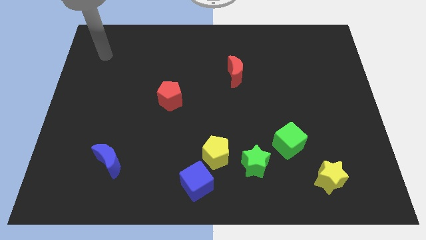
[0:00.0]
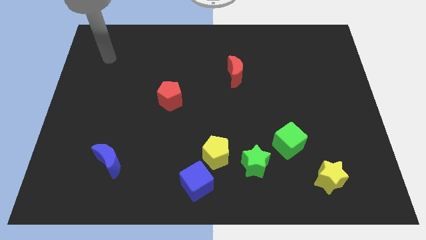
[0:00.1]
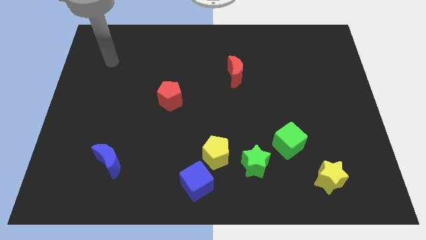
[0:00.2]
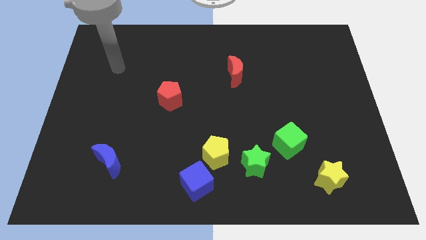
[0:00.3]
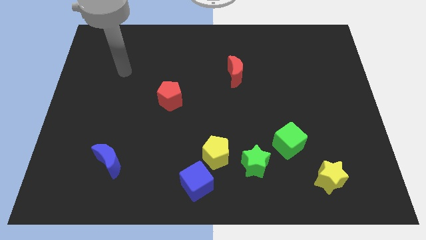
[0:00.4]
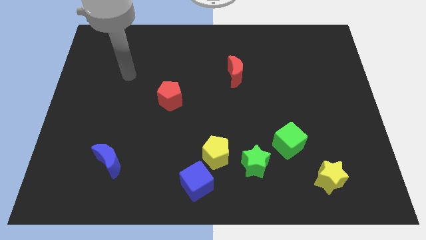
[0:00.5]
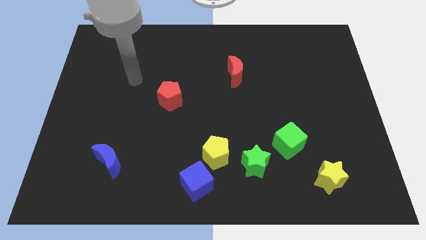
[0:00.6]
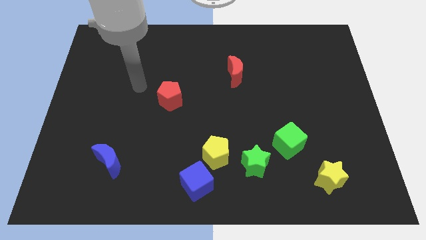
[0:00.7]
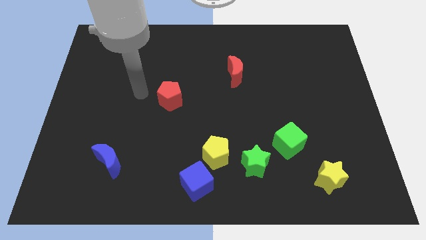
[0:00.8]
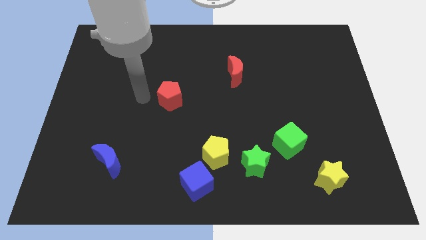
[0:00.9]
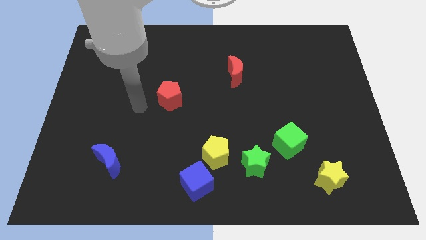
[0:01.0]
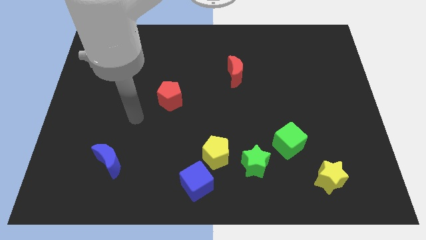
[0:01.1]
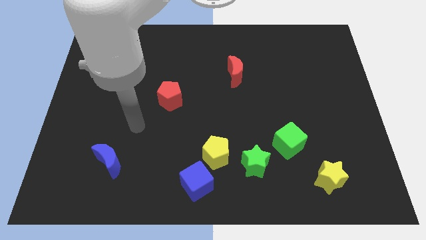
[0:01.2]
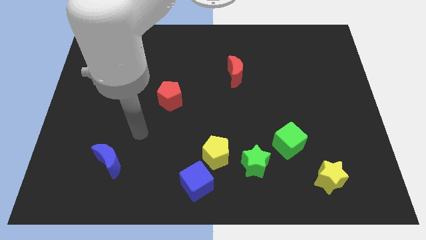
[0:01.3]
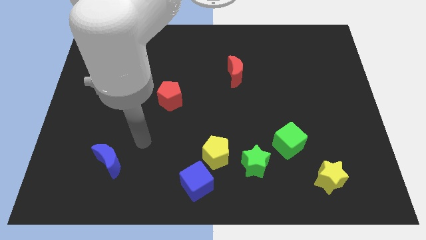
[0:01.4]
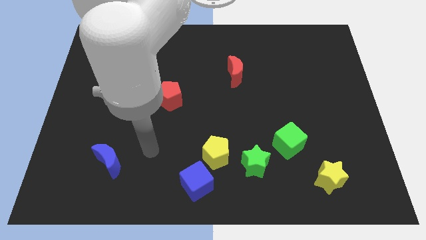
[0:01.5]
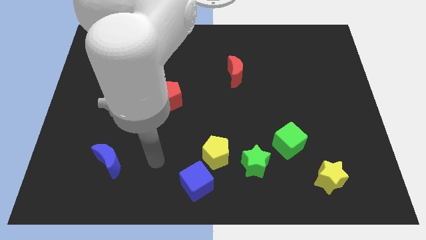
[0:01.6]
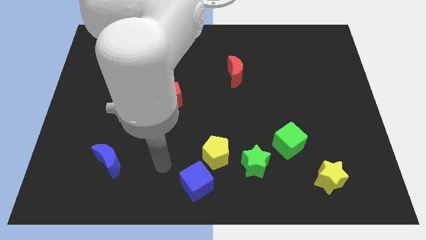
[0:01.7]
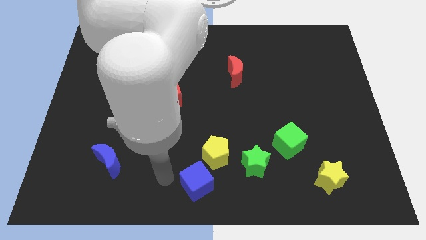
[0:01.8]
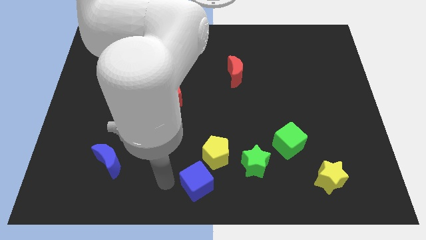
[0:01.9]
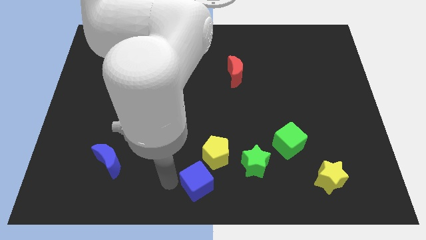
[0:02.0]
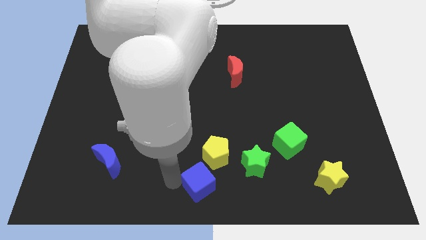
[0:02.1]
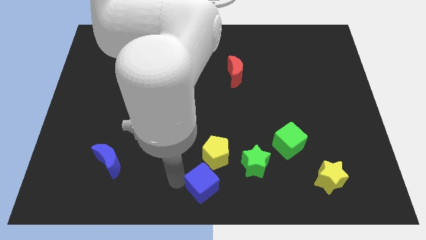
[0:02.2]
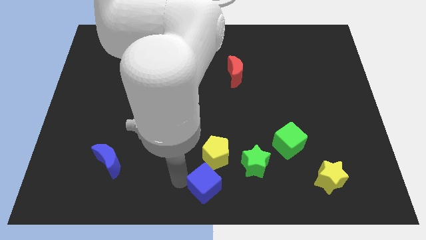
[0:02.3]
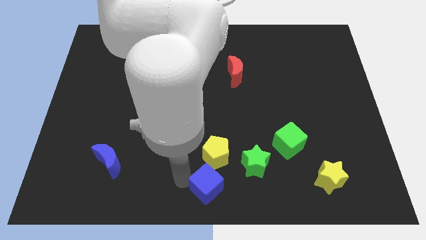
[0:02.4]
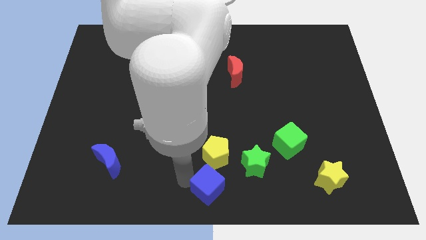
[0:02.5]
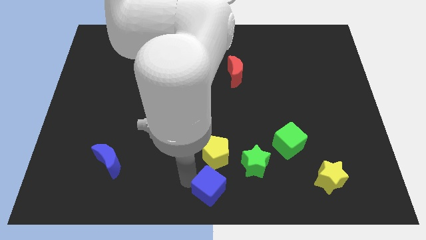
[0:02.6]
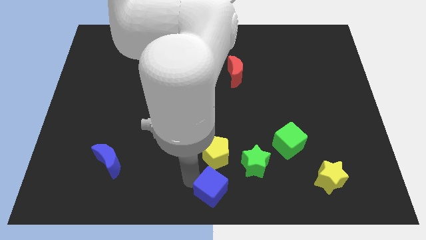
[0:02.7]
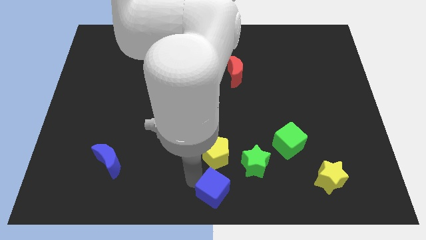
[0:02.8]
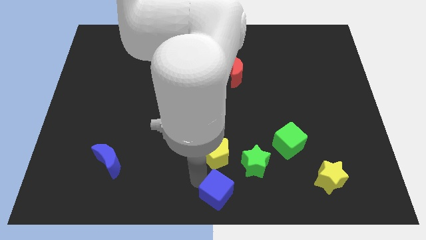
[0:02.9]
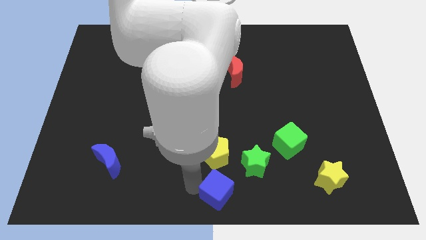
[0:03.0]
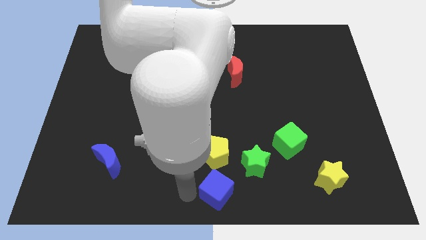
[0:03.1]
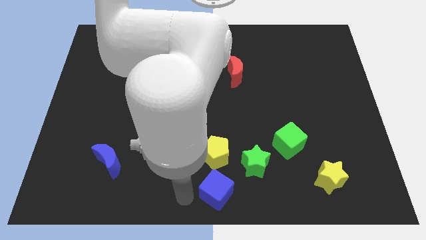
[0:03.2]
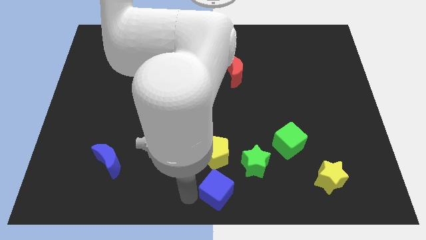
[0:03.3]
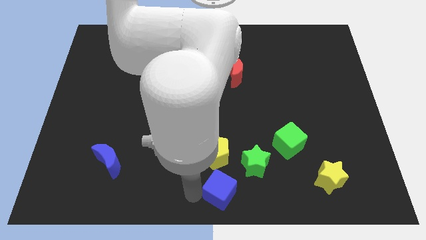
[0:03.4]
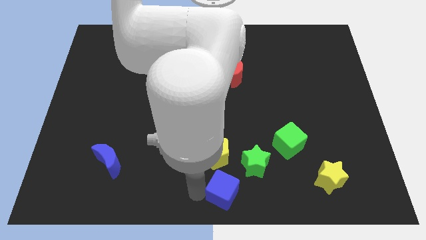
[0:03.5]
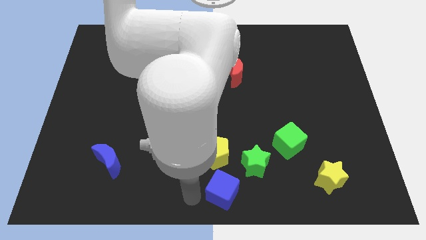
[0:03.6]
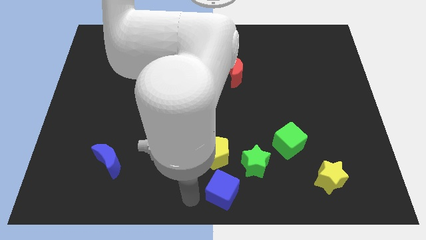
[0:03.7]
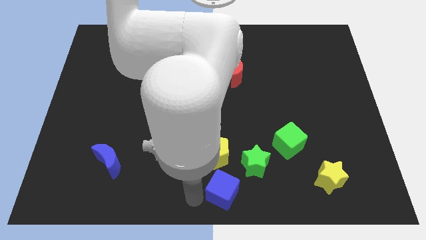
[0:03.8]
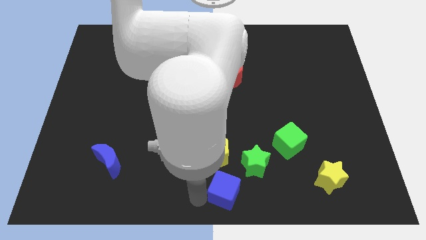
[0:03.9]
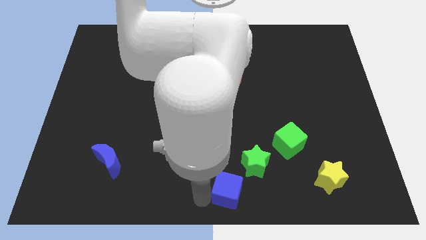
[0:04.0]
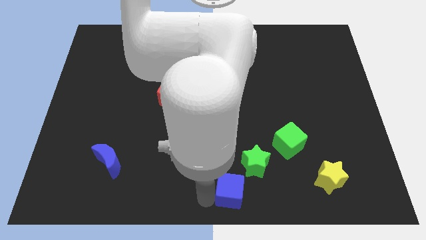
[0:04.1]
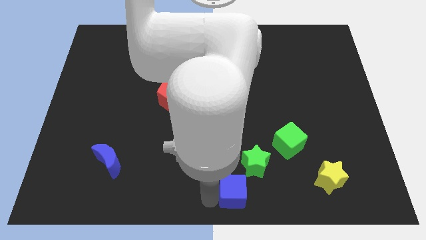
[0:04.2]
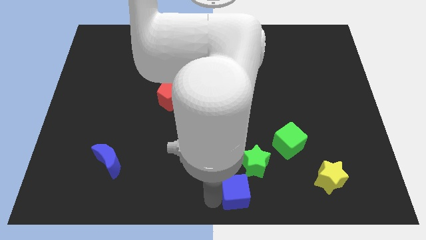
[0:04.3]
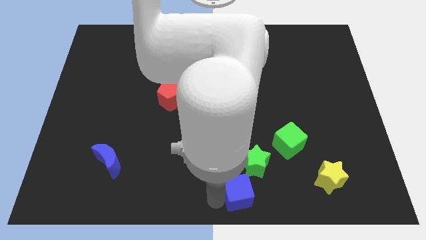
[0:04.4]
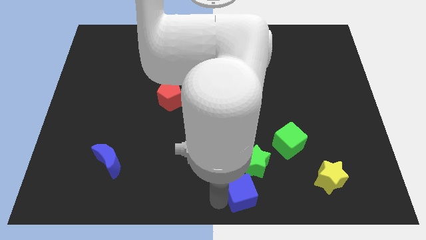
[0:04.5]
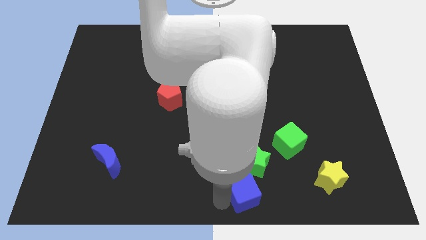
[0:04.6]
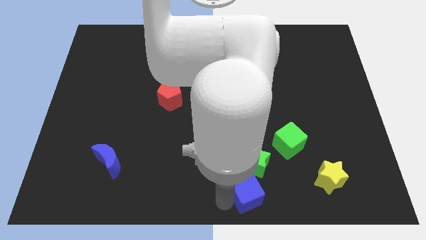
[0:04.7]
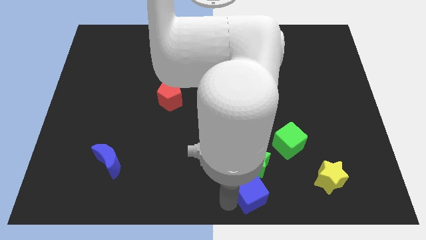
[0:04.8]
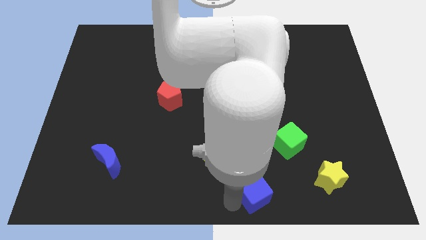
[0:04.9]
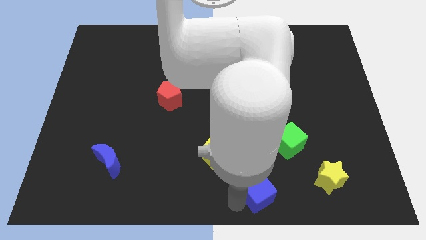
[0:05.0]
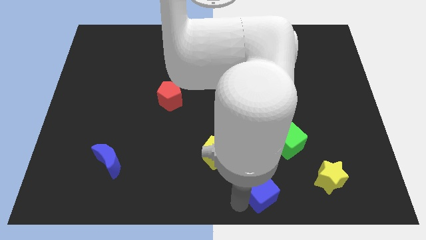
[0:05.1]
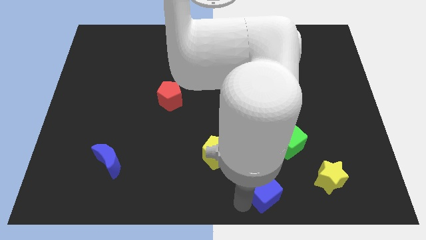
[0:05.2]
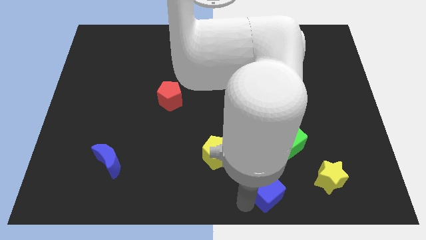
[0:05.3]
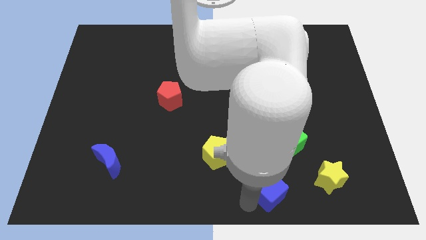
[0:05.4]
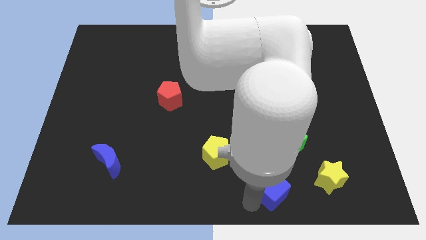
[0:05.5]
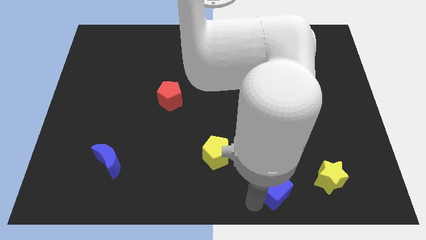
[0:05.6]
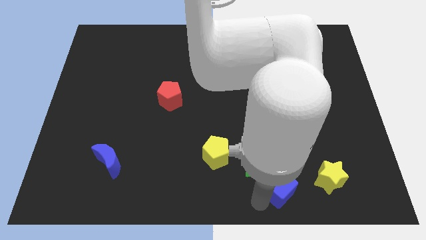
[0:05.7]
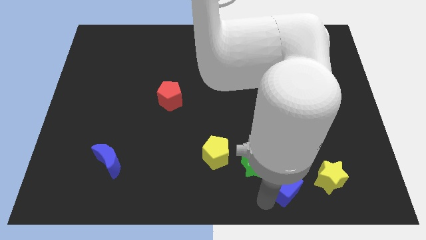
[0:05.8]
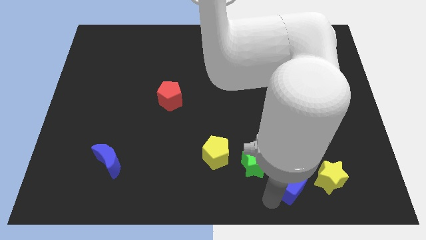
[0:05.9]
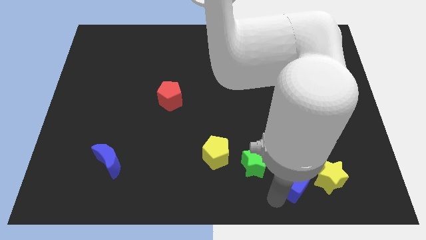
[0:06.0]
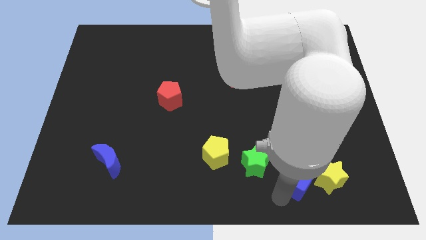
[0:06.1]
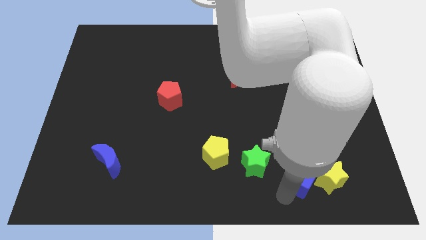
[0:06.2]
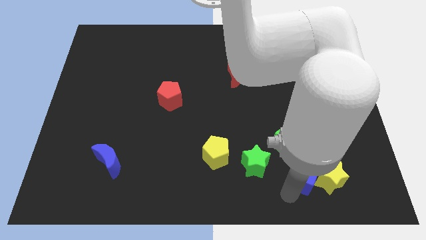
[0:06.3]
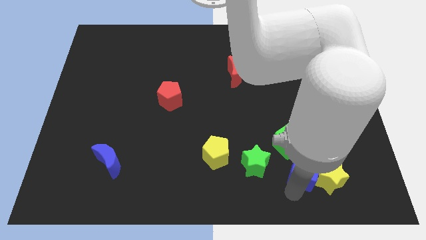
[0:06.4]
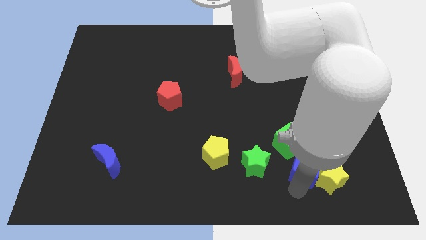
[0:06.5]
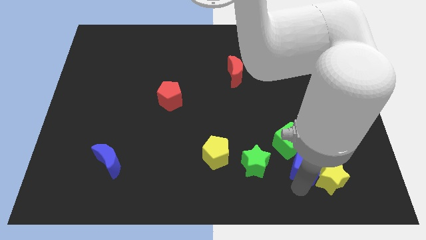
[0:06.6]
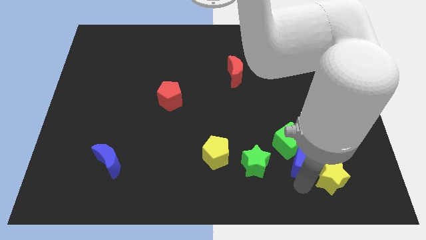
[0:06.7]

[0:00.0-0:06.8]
put the blue cube towards the green cube

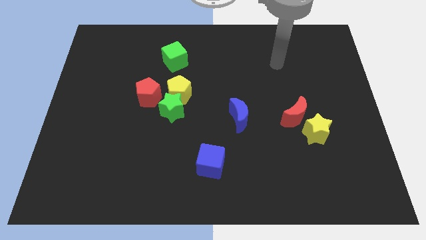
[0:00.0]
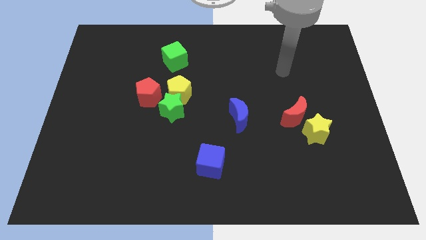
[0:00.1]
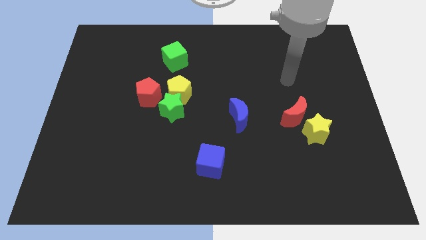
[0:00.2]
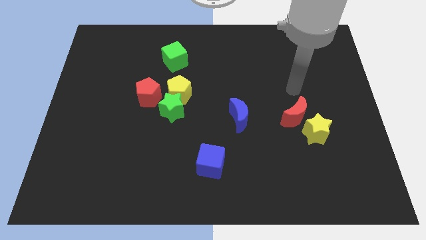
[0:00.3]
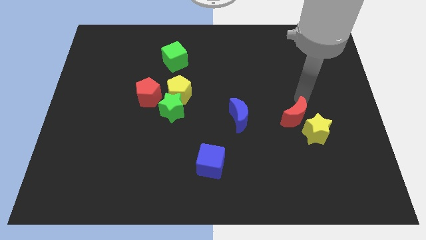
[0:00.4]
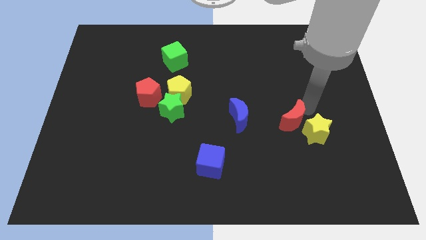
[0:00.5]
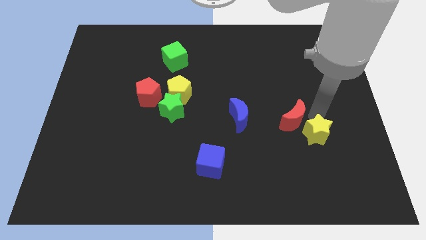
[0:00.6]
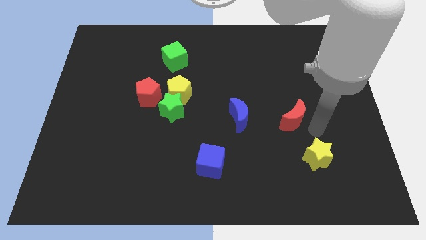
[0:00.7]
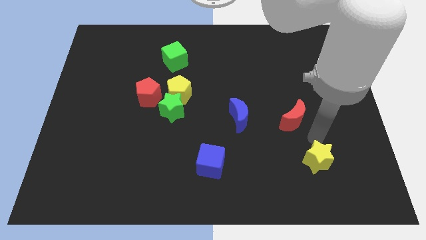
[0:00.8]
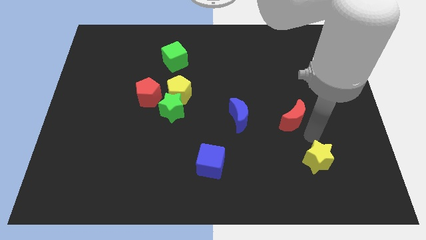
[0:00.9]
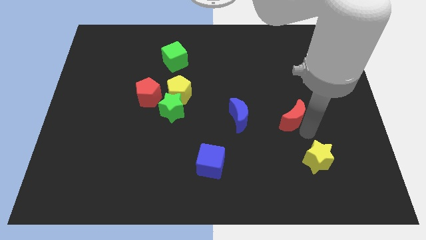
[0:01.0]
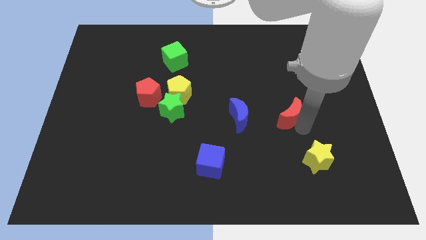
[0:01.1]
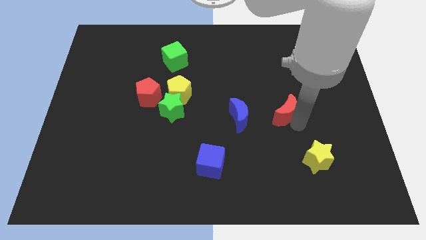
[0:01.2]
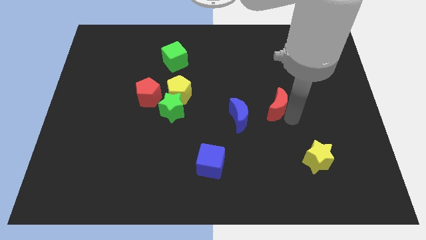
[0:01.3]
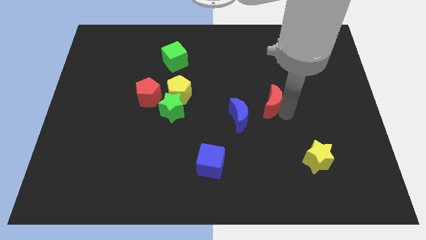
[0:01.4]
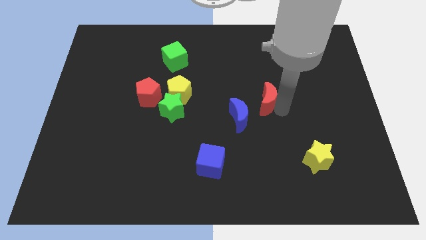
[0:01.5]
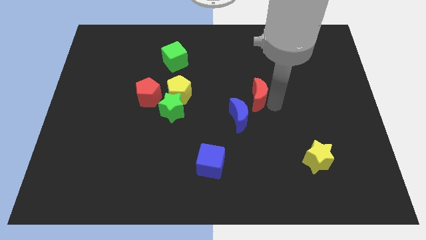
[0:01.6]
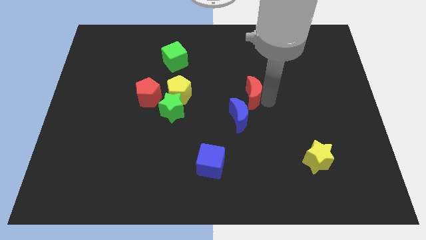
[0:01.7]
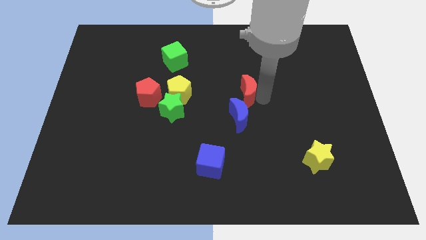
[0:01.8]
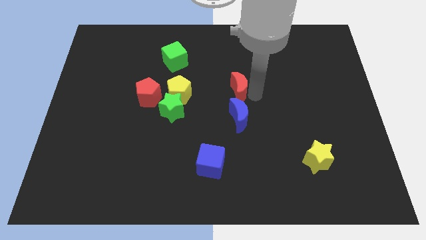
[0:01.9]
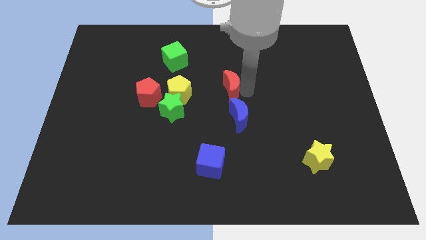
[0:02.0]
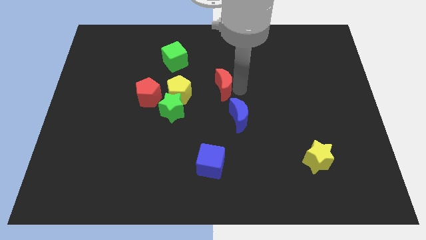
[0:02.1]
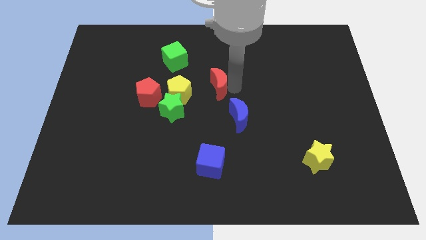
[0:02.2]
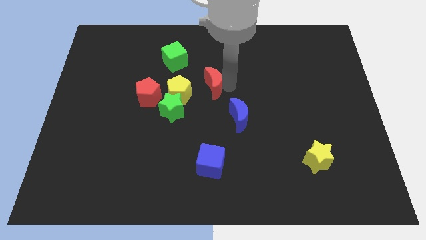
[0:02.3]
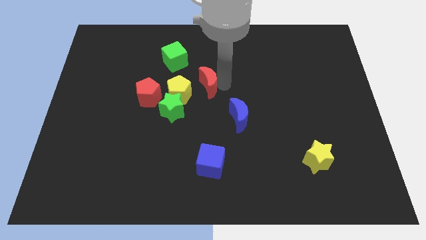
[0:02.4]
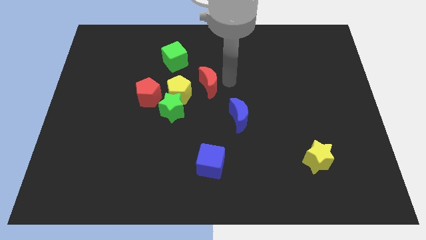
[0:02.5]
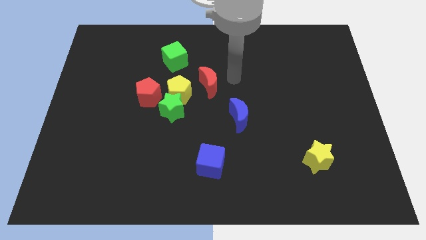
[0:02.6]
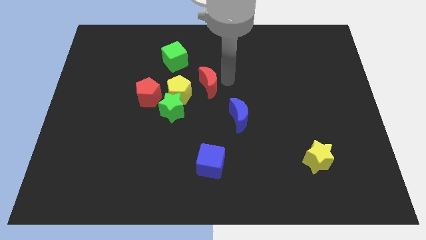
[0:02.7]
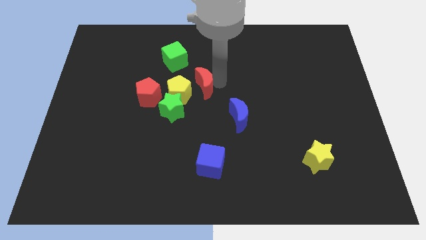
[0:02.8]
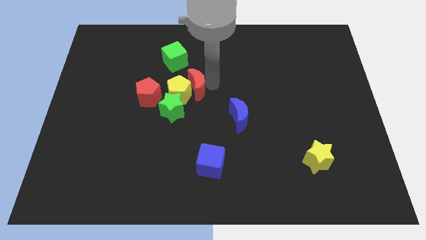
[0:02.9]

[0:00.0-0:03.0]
put the red moon next to the yellow pentagon
